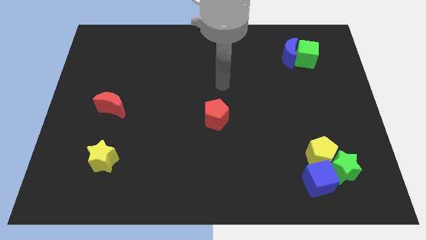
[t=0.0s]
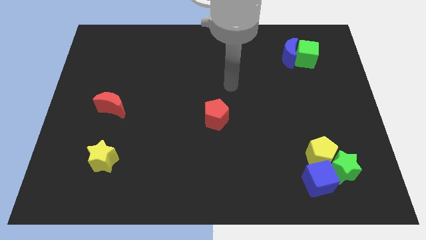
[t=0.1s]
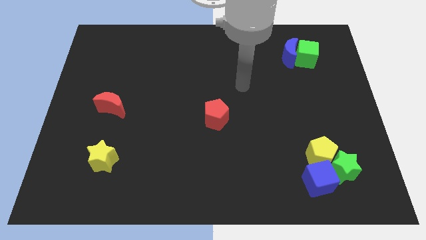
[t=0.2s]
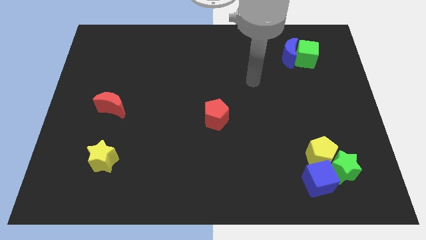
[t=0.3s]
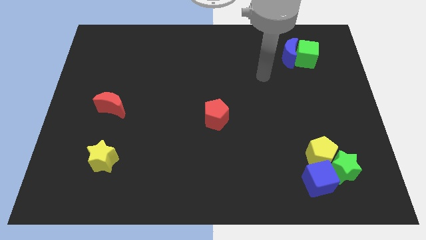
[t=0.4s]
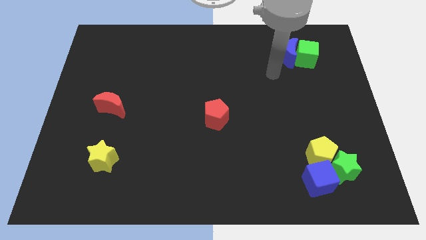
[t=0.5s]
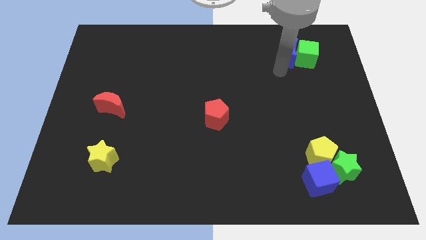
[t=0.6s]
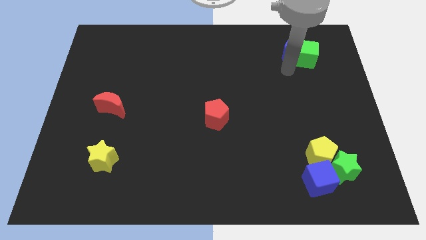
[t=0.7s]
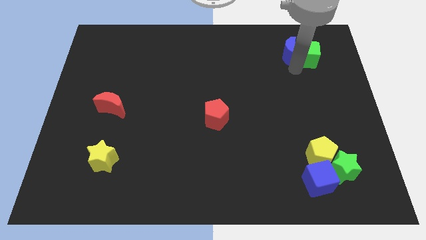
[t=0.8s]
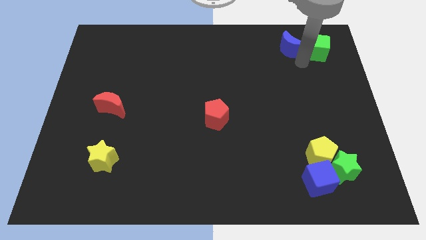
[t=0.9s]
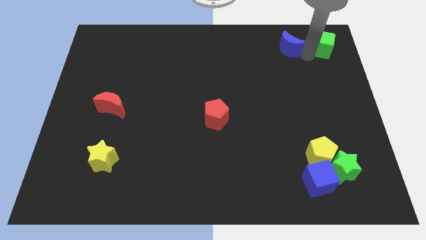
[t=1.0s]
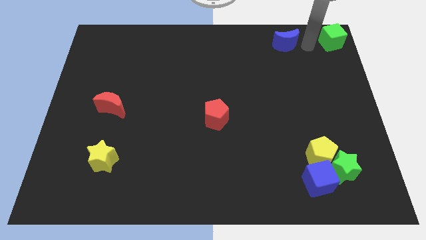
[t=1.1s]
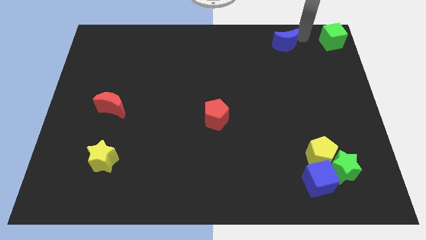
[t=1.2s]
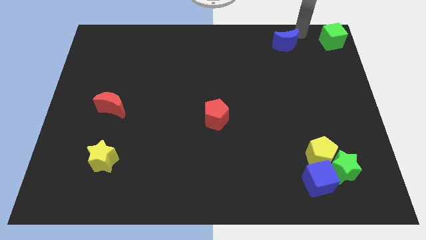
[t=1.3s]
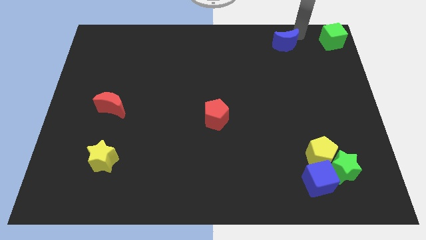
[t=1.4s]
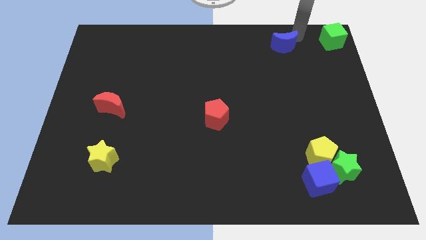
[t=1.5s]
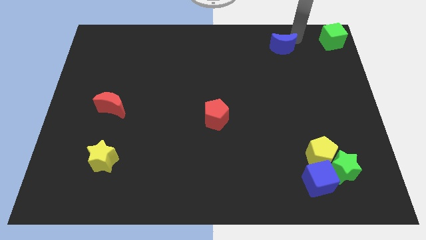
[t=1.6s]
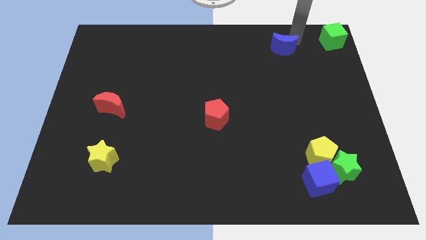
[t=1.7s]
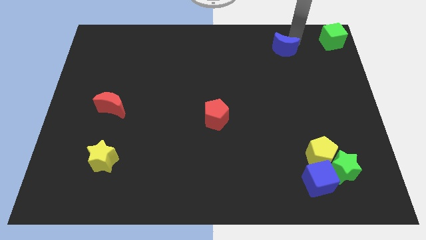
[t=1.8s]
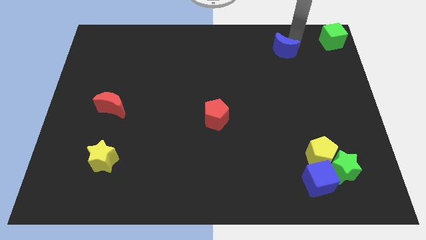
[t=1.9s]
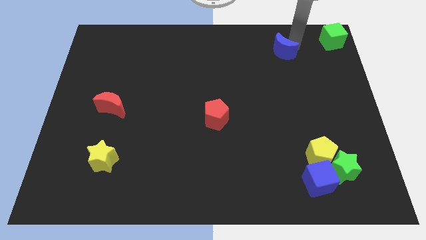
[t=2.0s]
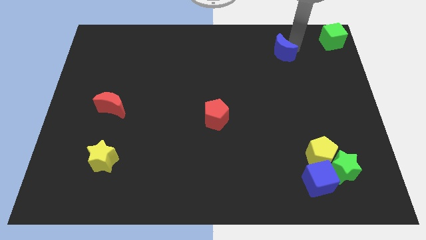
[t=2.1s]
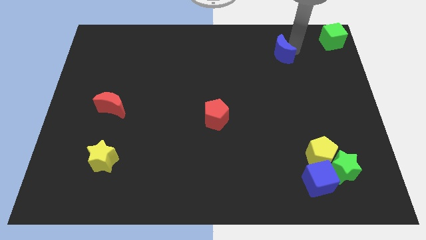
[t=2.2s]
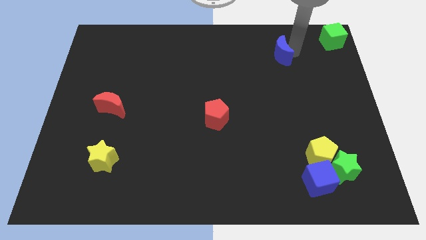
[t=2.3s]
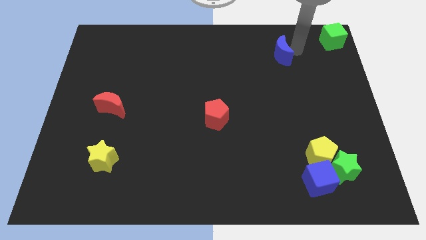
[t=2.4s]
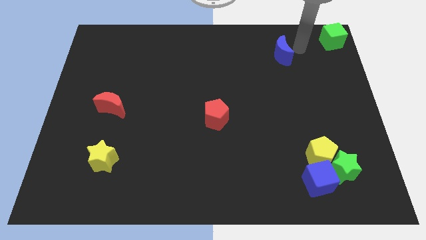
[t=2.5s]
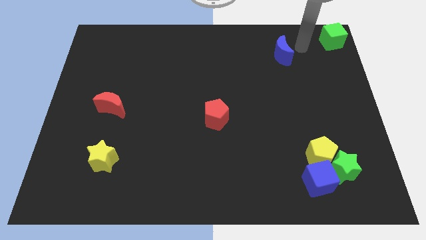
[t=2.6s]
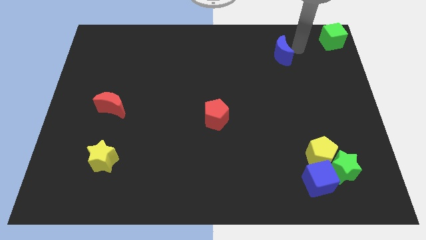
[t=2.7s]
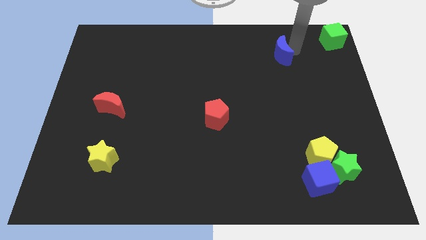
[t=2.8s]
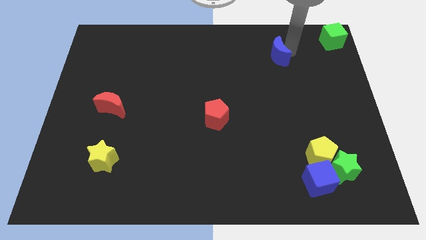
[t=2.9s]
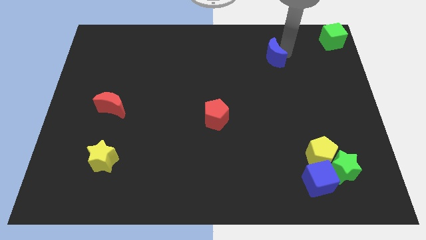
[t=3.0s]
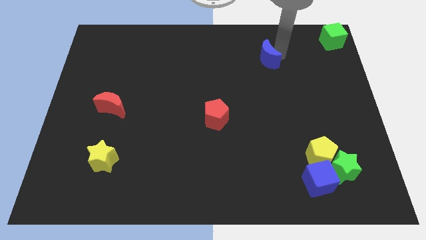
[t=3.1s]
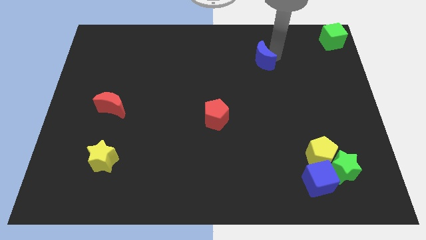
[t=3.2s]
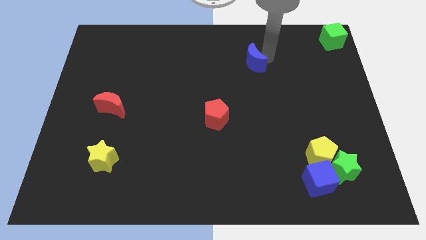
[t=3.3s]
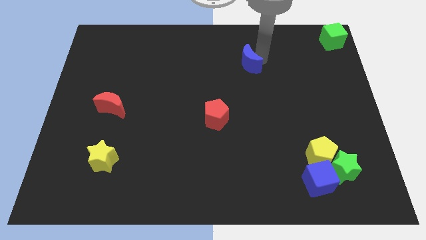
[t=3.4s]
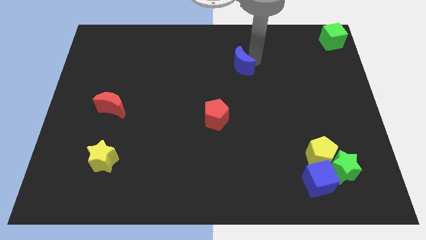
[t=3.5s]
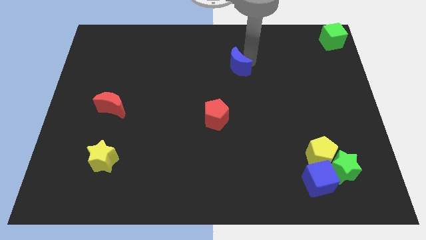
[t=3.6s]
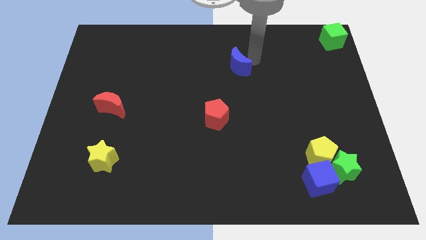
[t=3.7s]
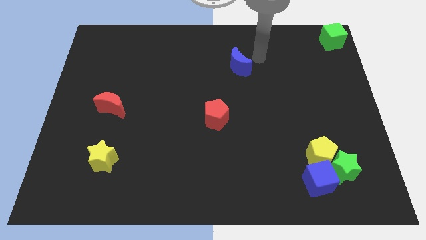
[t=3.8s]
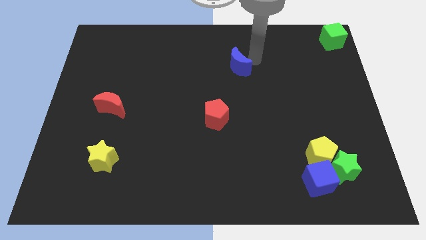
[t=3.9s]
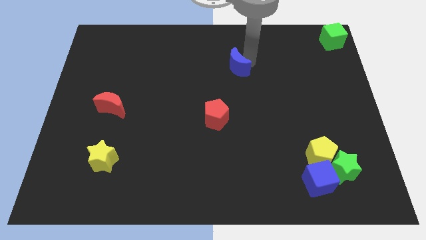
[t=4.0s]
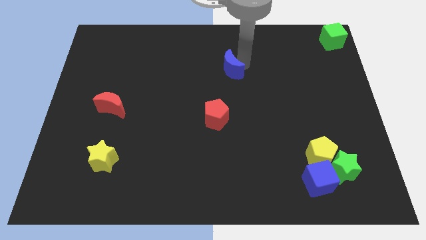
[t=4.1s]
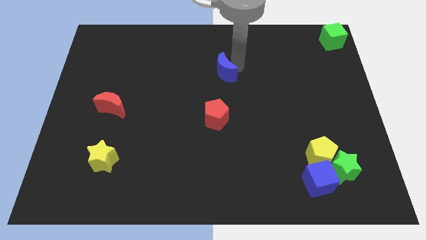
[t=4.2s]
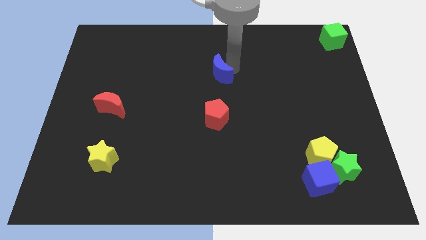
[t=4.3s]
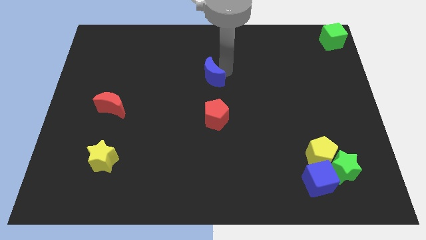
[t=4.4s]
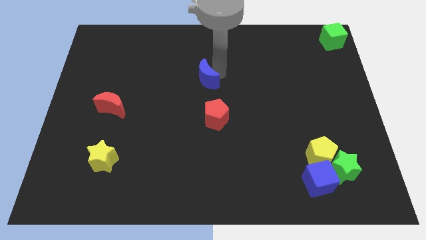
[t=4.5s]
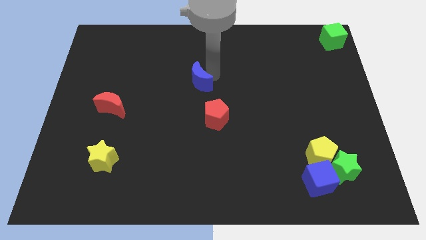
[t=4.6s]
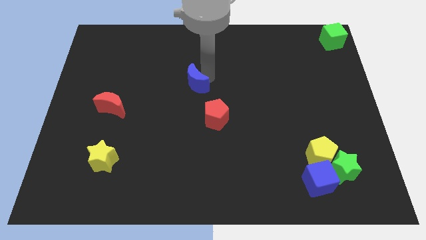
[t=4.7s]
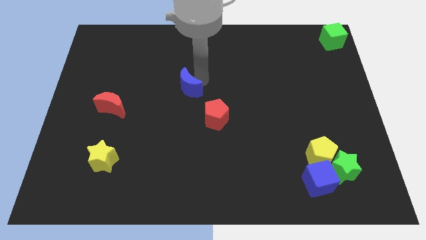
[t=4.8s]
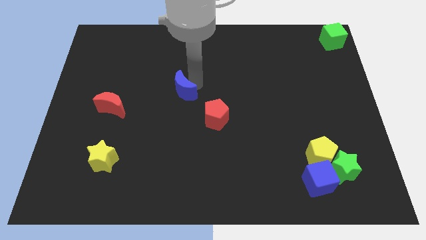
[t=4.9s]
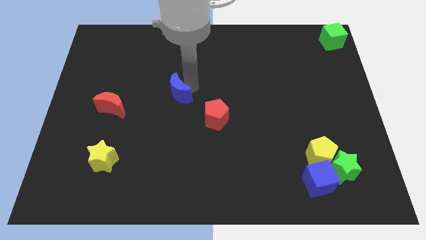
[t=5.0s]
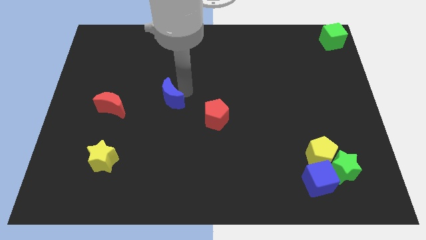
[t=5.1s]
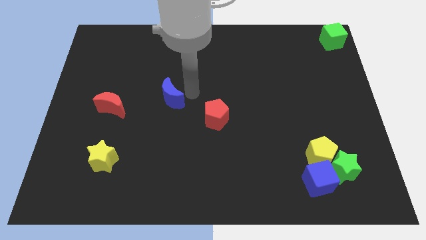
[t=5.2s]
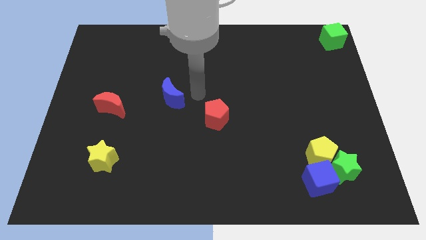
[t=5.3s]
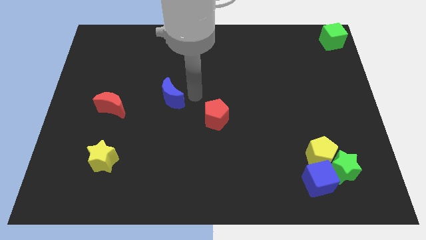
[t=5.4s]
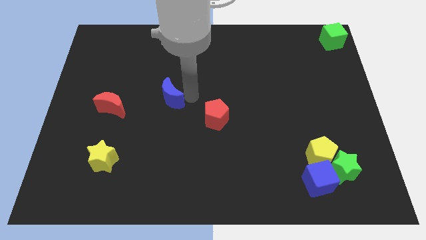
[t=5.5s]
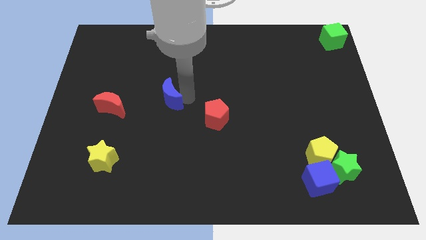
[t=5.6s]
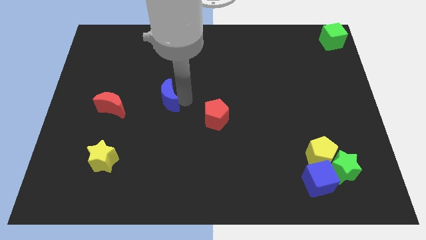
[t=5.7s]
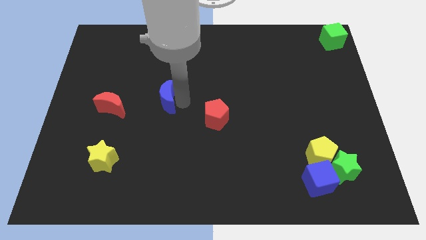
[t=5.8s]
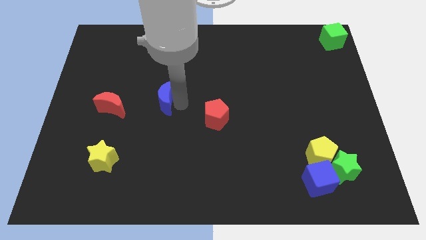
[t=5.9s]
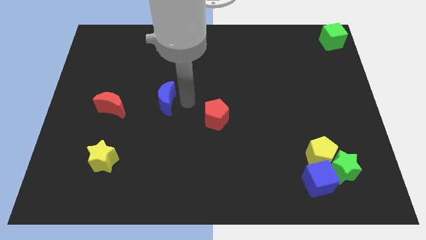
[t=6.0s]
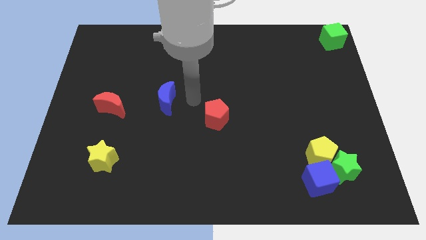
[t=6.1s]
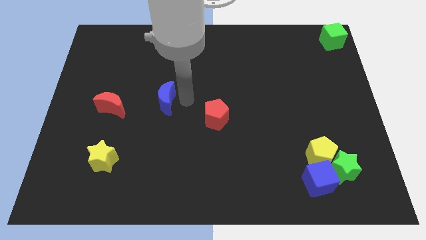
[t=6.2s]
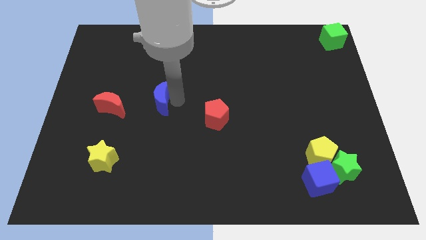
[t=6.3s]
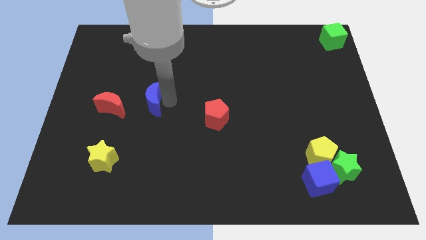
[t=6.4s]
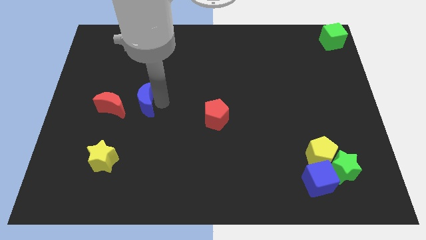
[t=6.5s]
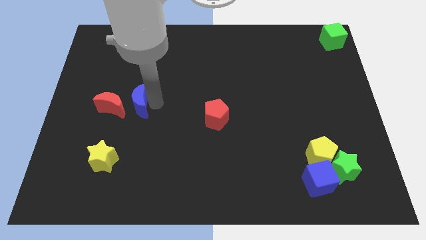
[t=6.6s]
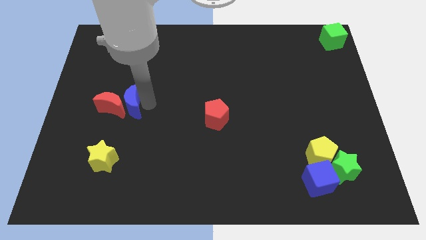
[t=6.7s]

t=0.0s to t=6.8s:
move the blue moon towards the red moon
